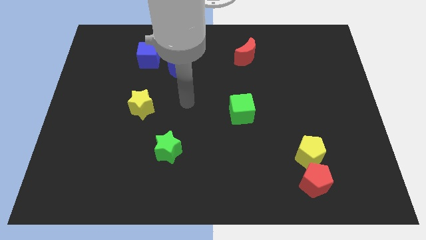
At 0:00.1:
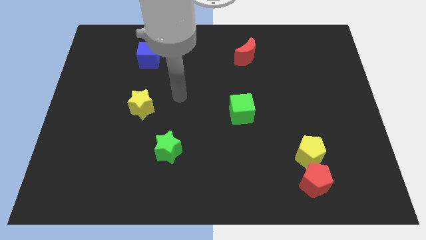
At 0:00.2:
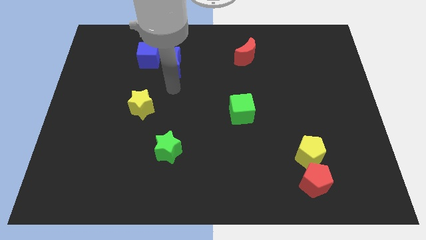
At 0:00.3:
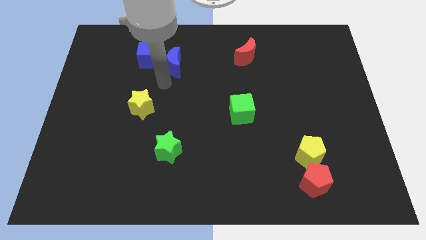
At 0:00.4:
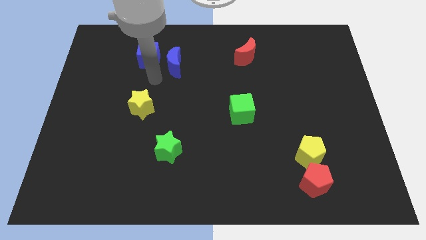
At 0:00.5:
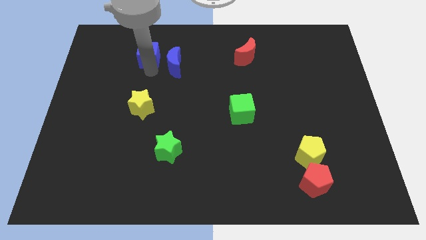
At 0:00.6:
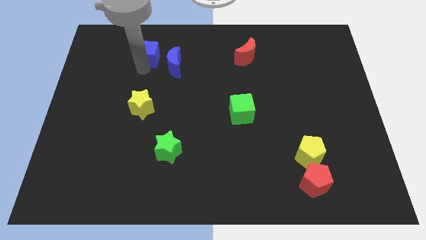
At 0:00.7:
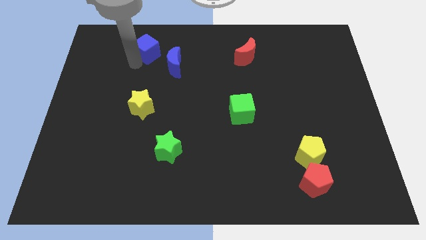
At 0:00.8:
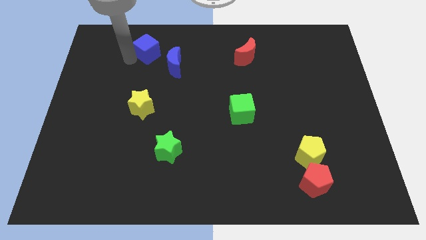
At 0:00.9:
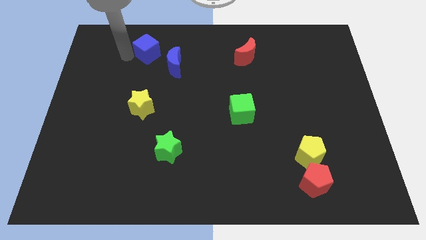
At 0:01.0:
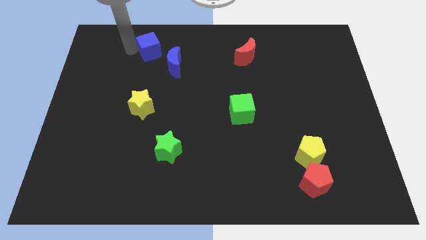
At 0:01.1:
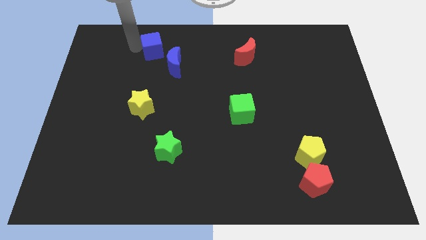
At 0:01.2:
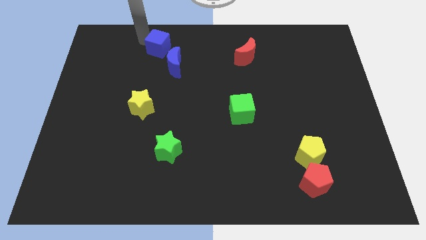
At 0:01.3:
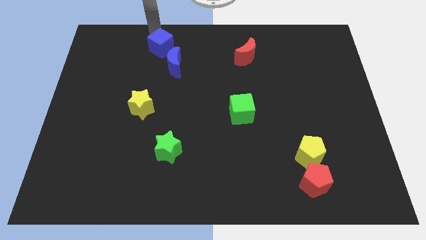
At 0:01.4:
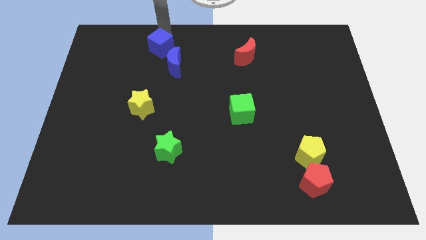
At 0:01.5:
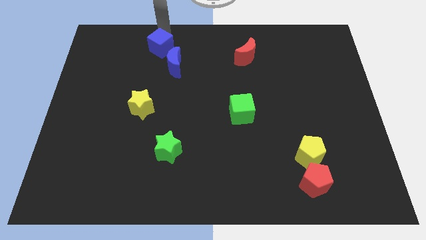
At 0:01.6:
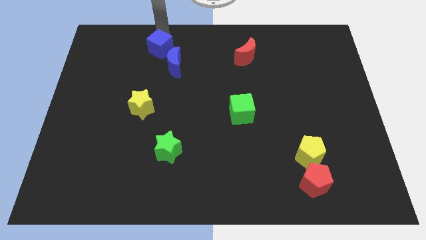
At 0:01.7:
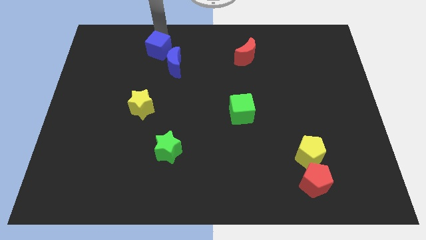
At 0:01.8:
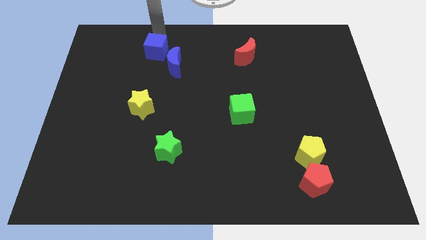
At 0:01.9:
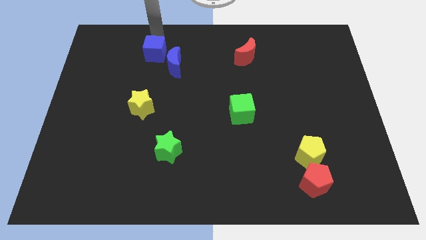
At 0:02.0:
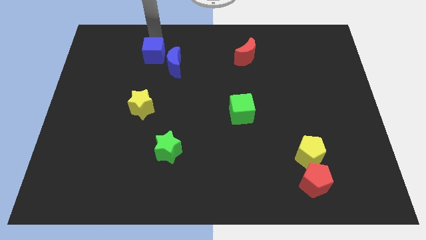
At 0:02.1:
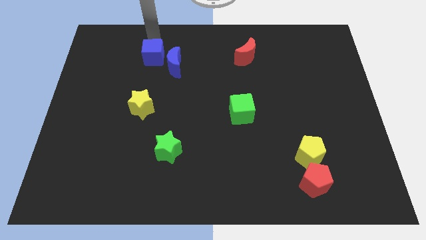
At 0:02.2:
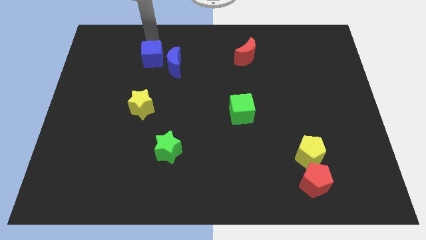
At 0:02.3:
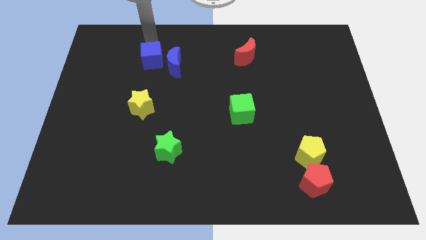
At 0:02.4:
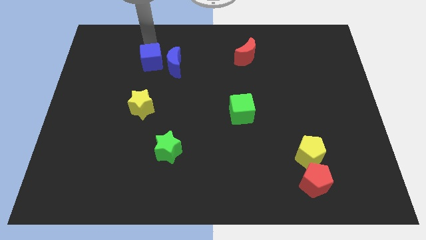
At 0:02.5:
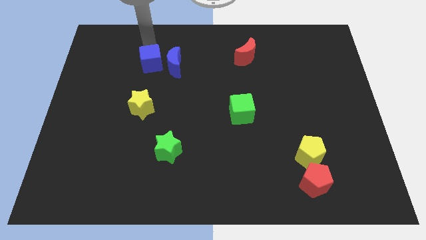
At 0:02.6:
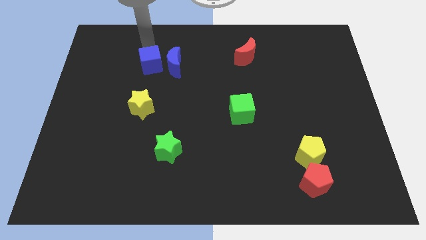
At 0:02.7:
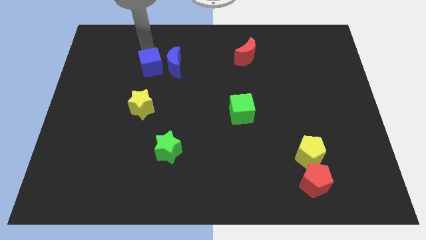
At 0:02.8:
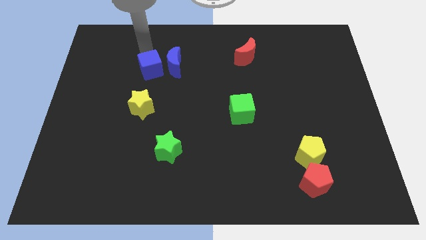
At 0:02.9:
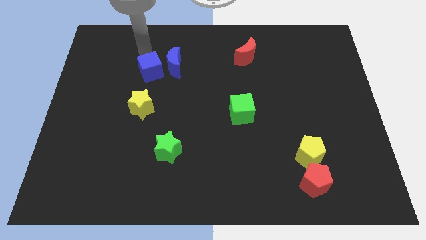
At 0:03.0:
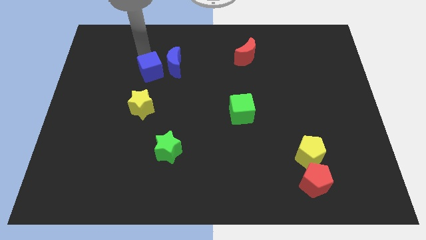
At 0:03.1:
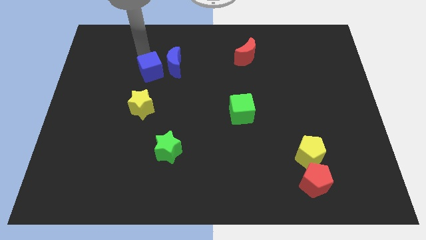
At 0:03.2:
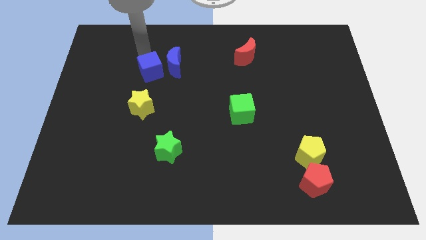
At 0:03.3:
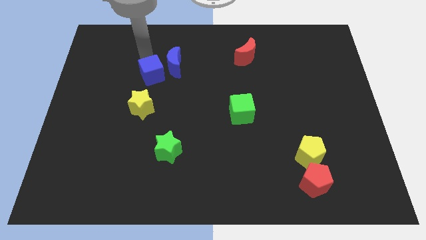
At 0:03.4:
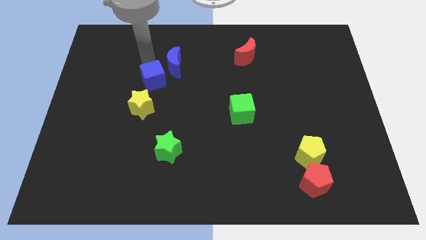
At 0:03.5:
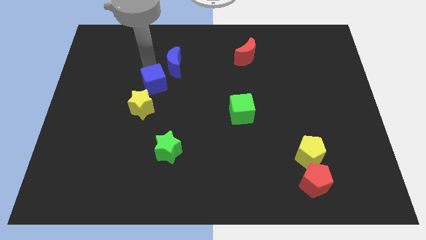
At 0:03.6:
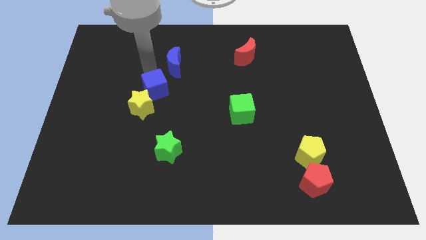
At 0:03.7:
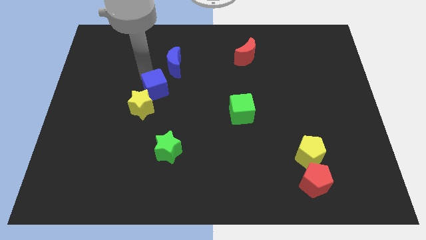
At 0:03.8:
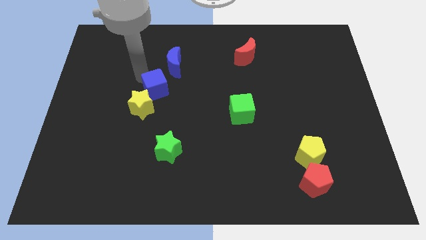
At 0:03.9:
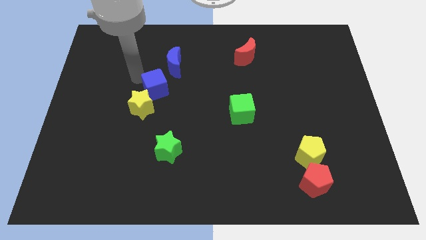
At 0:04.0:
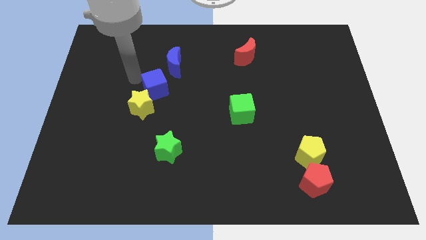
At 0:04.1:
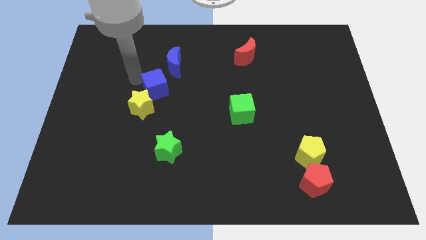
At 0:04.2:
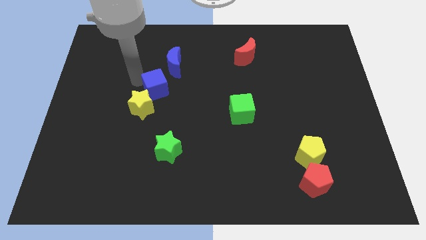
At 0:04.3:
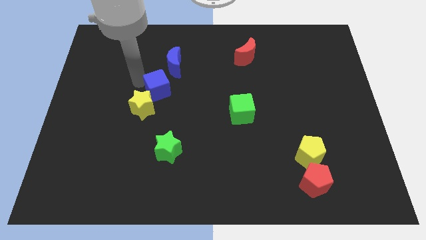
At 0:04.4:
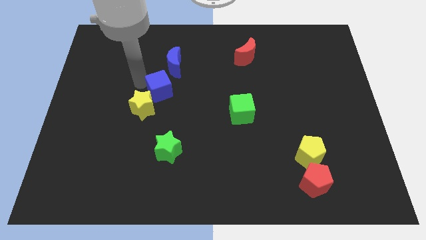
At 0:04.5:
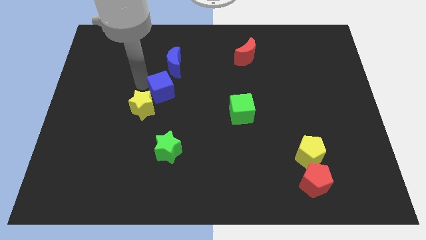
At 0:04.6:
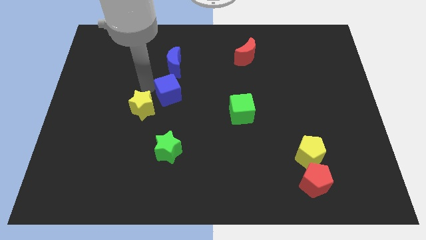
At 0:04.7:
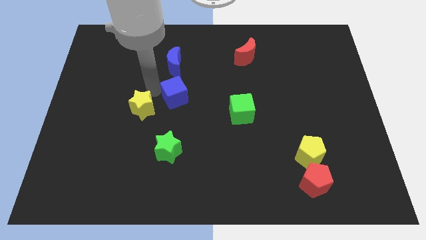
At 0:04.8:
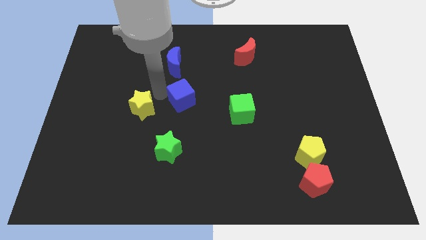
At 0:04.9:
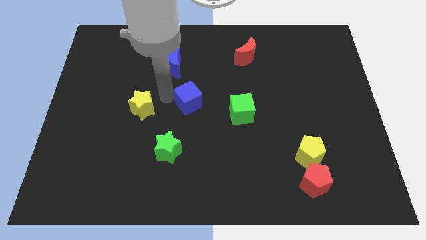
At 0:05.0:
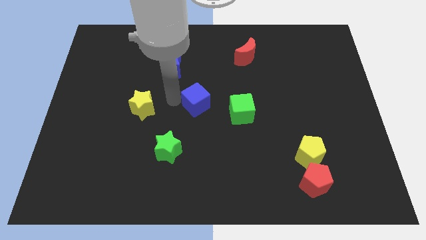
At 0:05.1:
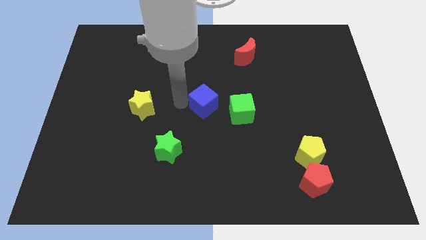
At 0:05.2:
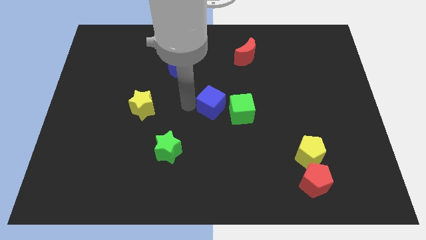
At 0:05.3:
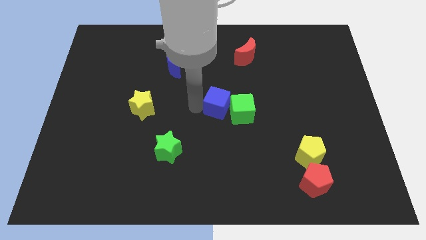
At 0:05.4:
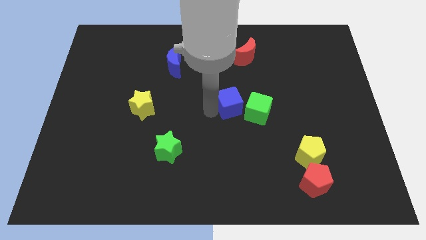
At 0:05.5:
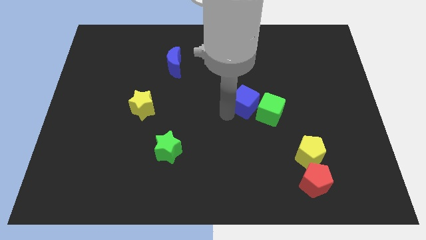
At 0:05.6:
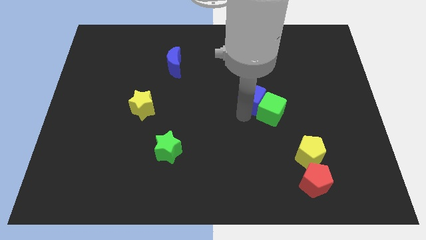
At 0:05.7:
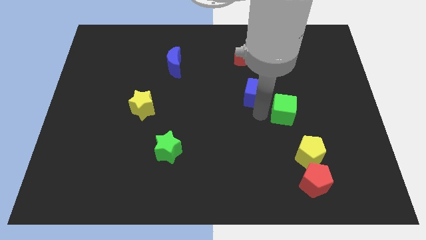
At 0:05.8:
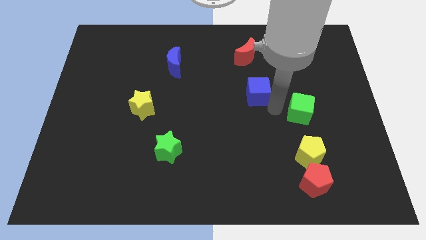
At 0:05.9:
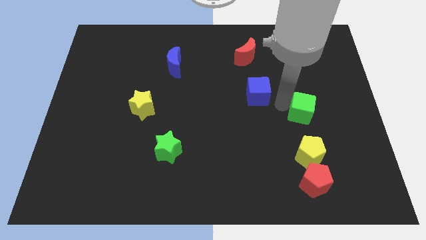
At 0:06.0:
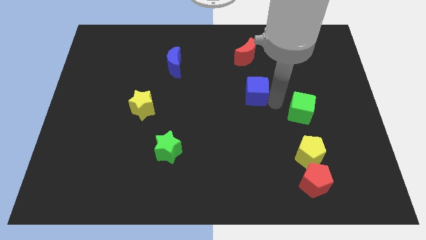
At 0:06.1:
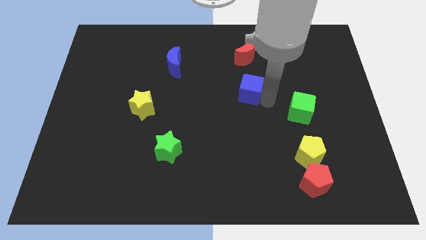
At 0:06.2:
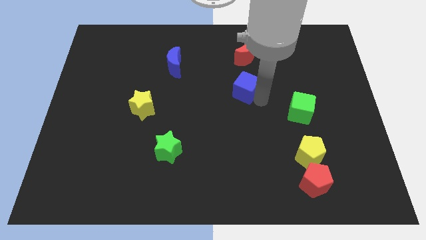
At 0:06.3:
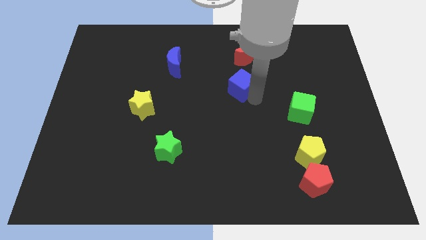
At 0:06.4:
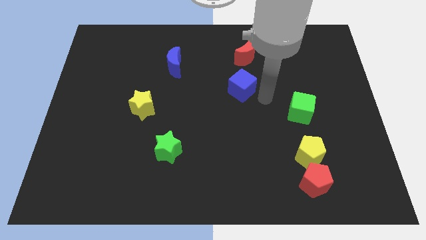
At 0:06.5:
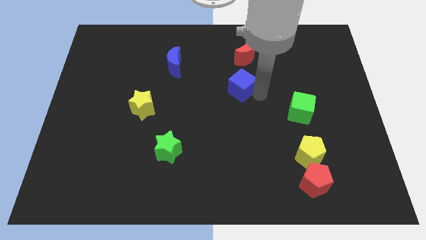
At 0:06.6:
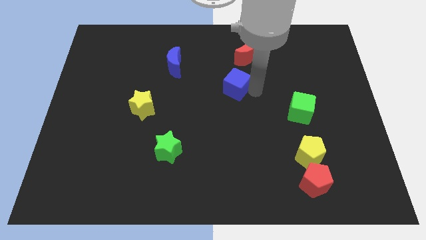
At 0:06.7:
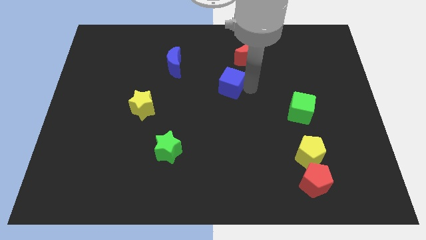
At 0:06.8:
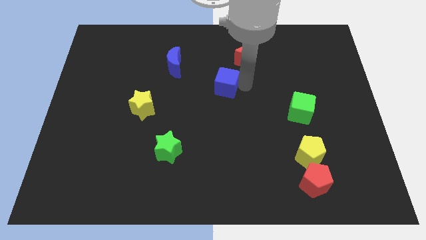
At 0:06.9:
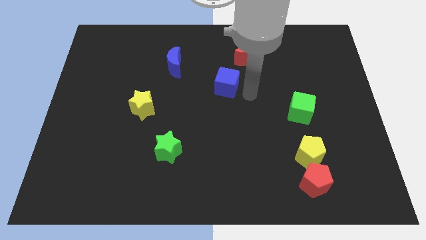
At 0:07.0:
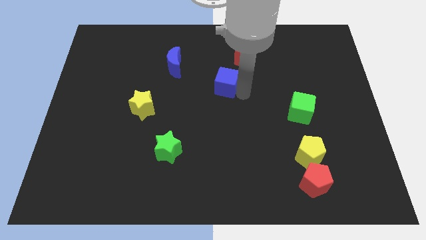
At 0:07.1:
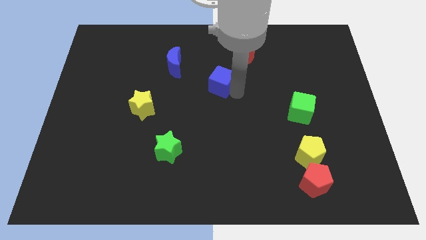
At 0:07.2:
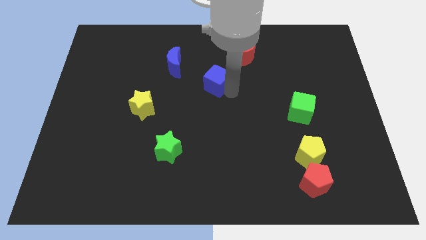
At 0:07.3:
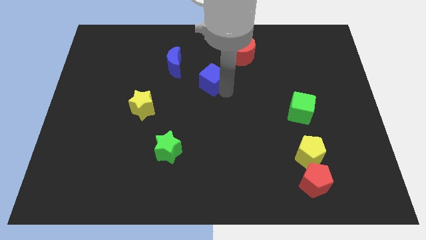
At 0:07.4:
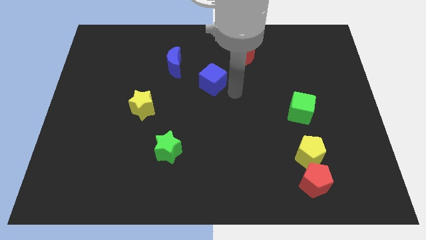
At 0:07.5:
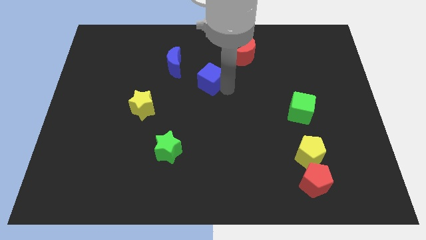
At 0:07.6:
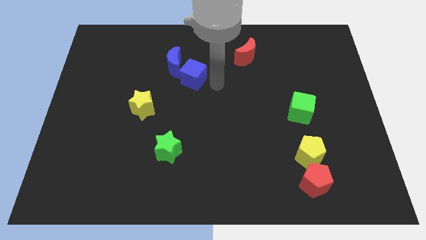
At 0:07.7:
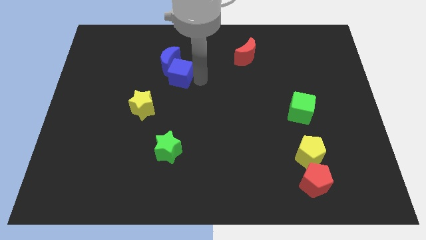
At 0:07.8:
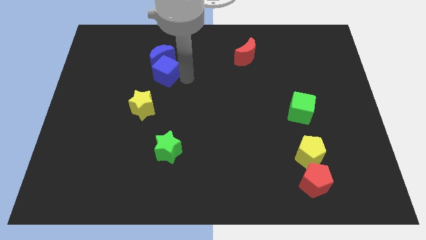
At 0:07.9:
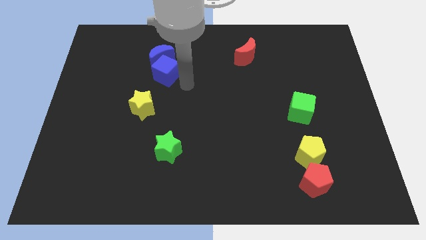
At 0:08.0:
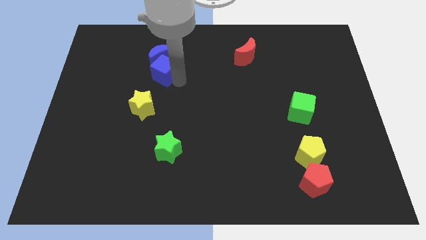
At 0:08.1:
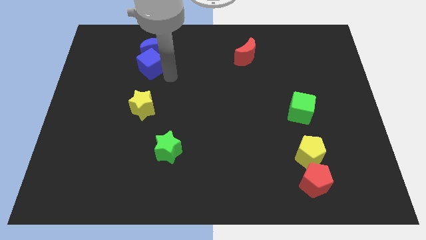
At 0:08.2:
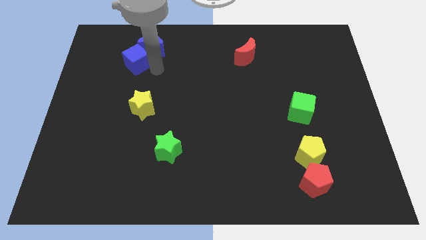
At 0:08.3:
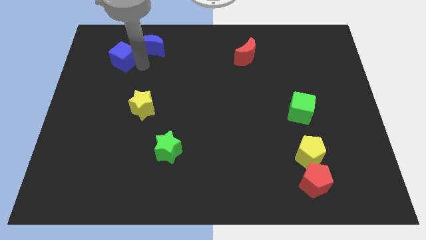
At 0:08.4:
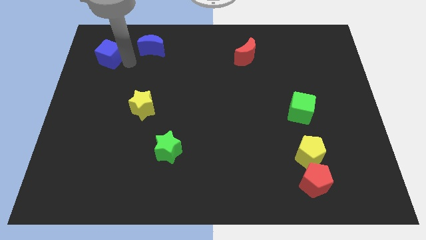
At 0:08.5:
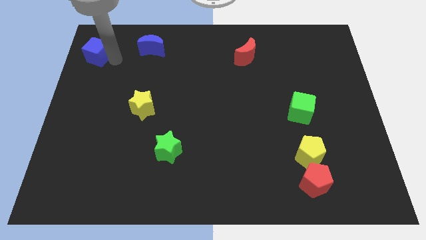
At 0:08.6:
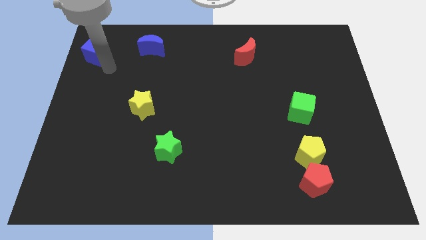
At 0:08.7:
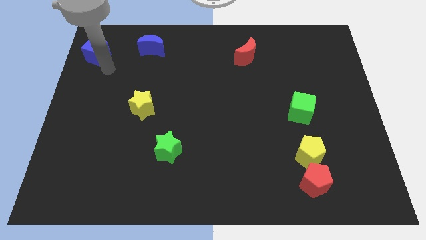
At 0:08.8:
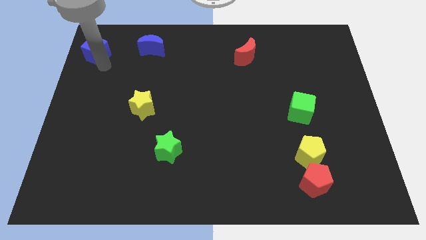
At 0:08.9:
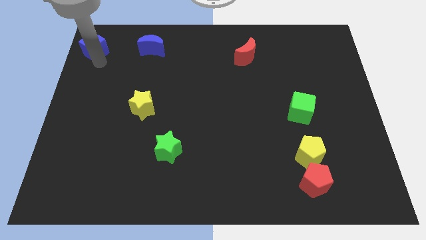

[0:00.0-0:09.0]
move the blue cube to the upper left corner
